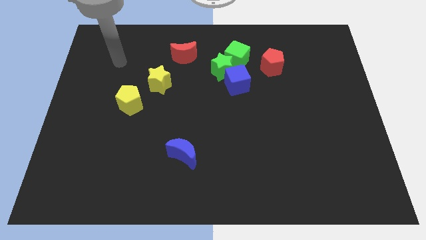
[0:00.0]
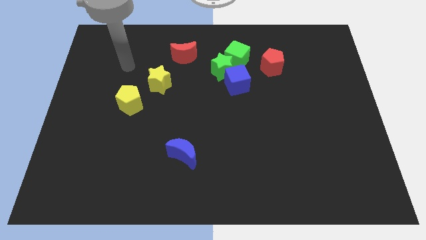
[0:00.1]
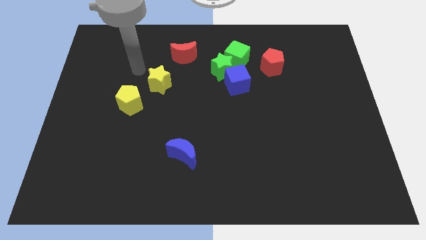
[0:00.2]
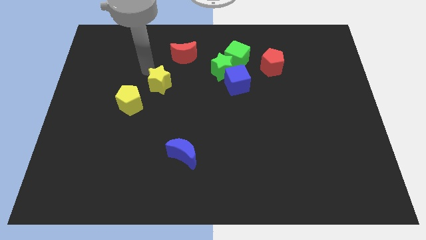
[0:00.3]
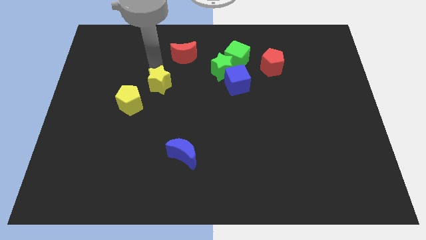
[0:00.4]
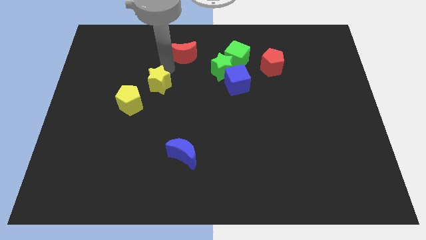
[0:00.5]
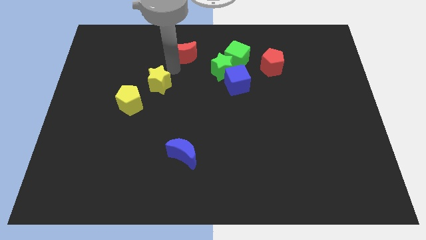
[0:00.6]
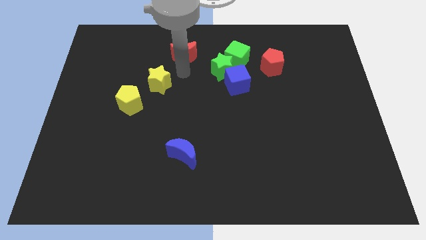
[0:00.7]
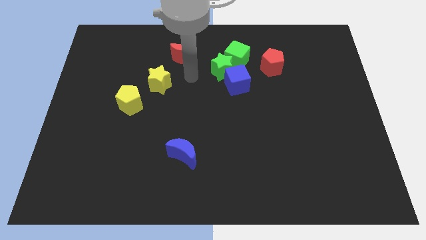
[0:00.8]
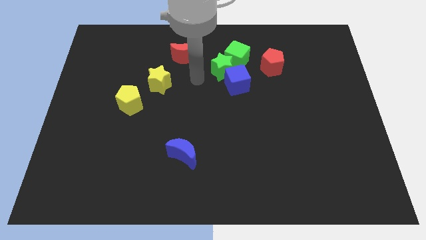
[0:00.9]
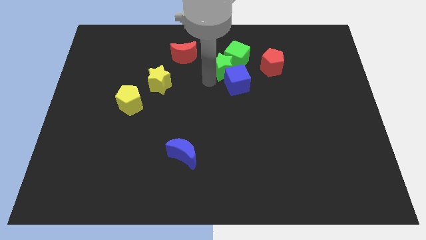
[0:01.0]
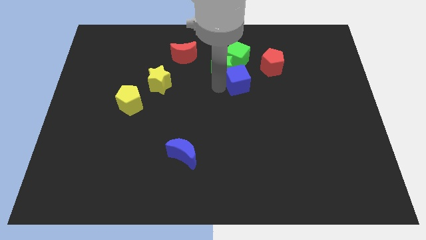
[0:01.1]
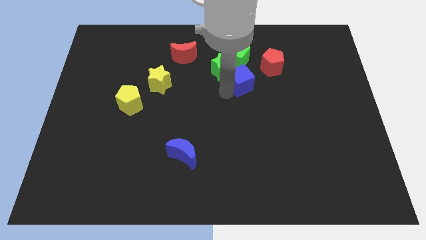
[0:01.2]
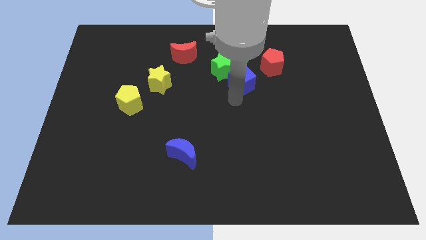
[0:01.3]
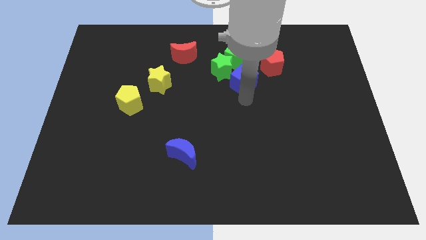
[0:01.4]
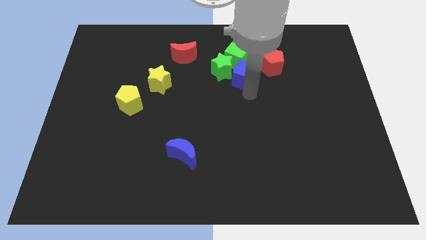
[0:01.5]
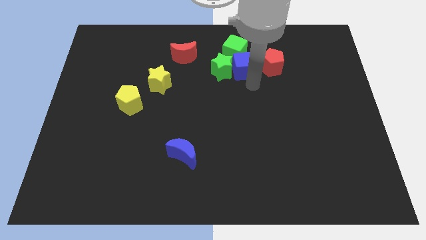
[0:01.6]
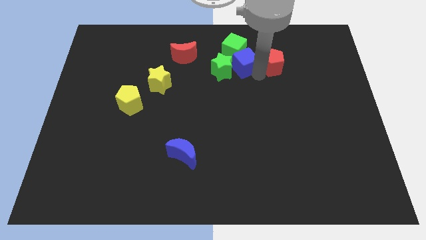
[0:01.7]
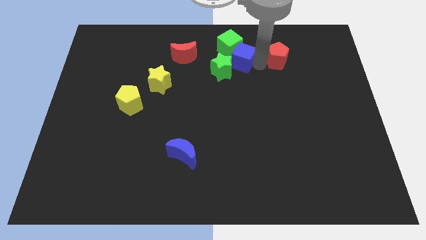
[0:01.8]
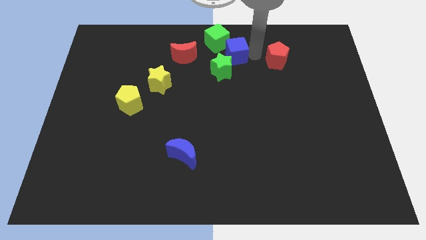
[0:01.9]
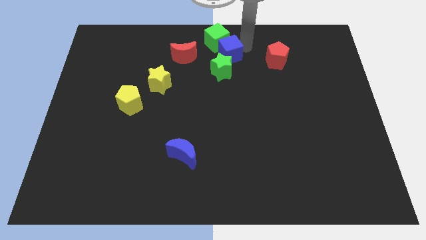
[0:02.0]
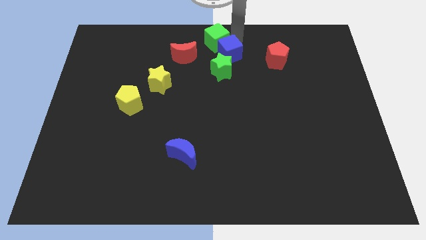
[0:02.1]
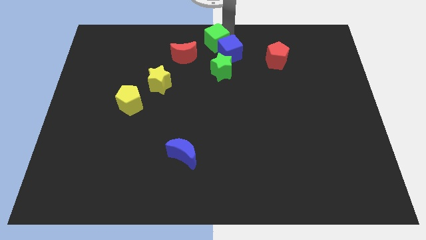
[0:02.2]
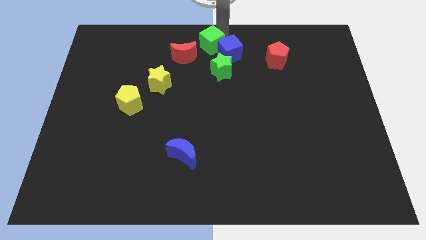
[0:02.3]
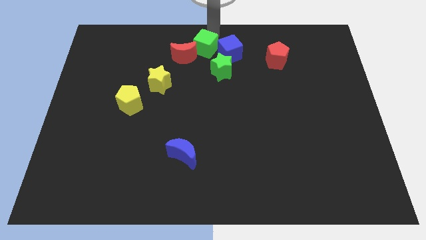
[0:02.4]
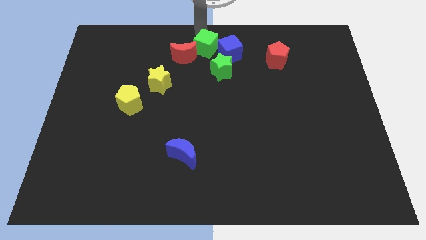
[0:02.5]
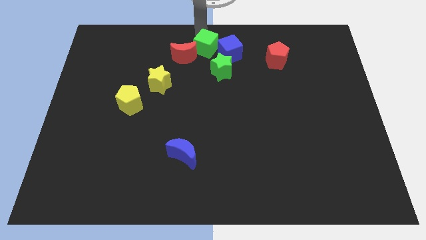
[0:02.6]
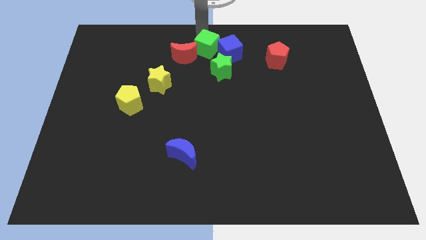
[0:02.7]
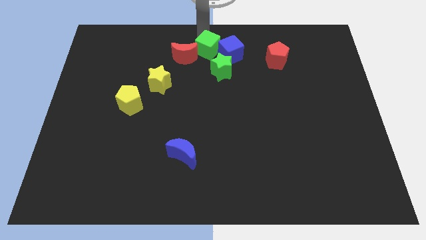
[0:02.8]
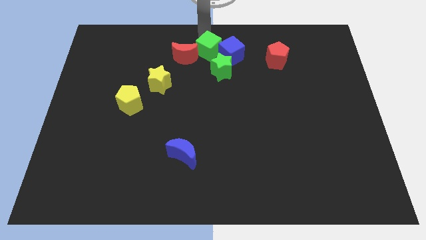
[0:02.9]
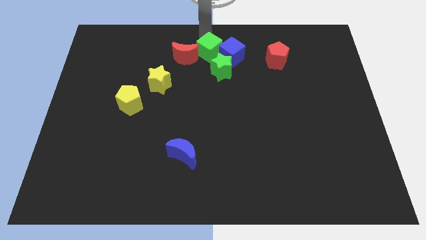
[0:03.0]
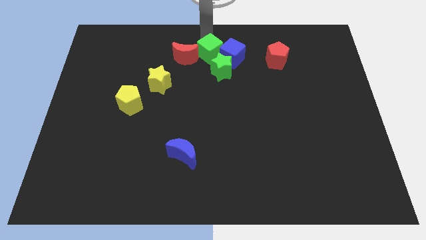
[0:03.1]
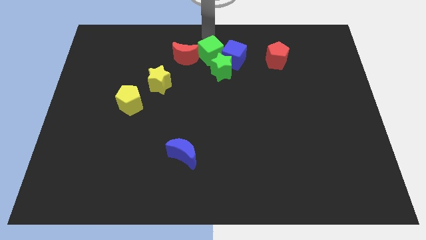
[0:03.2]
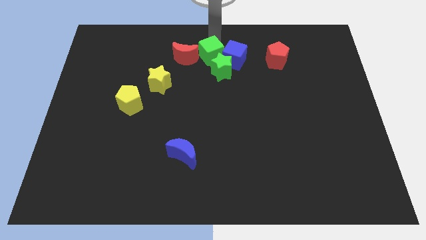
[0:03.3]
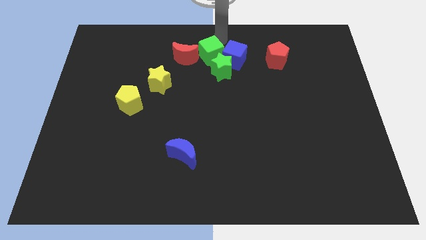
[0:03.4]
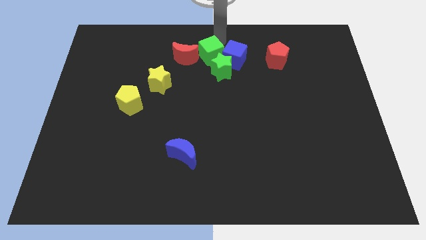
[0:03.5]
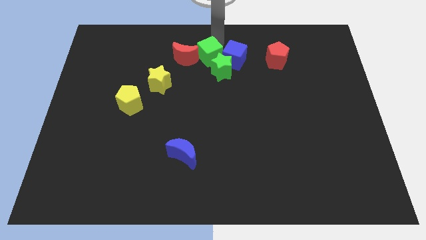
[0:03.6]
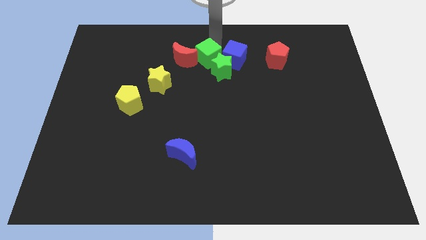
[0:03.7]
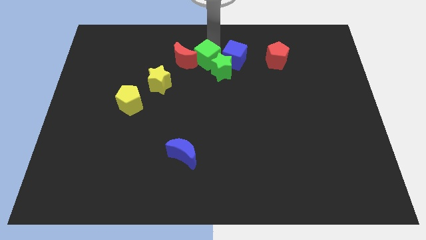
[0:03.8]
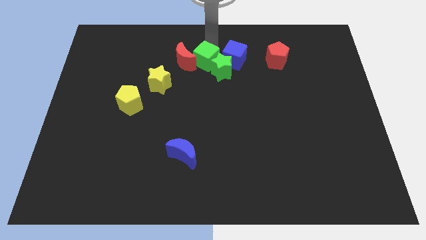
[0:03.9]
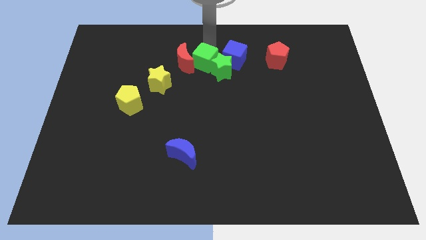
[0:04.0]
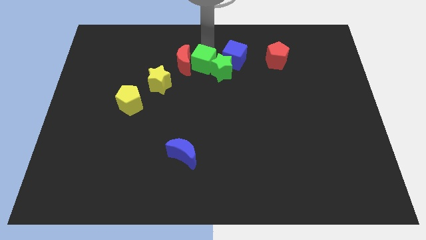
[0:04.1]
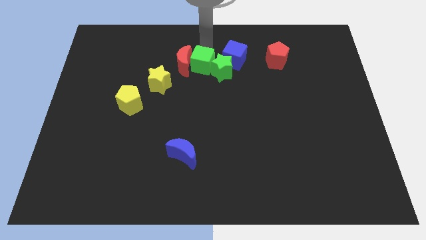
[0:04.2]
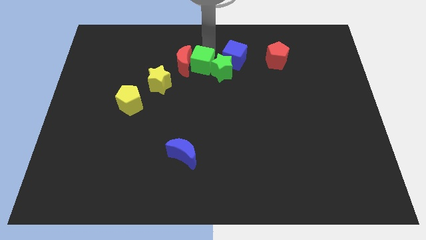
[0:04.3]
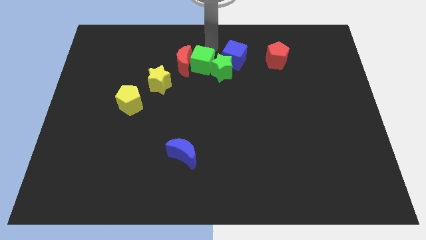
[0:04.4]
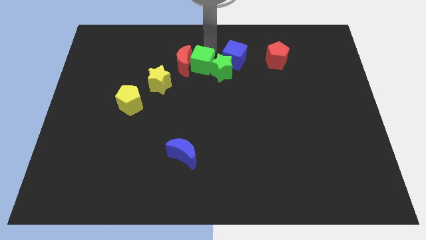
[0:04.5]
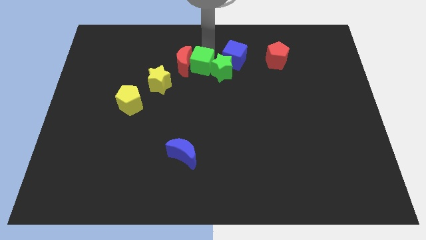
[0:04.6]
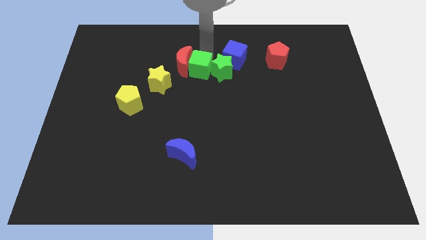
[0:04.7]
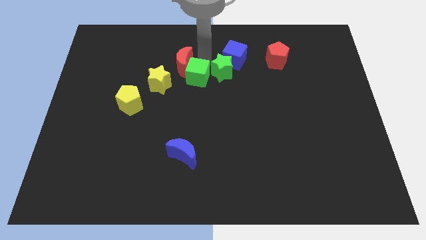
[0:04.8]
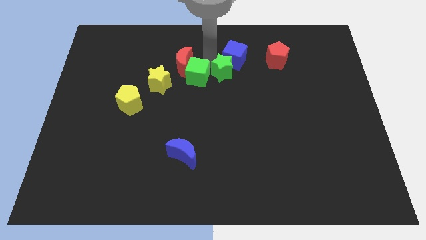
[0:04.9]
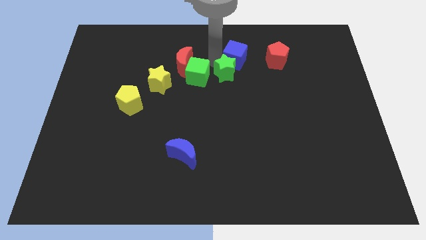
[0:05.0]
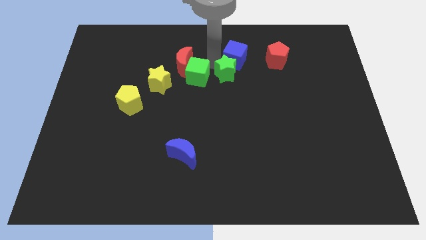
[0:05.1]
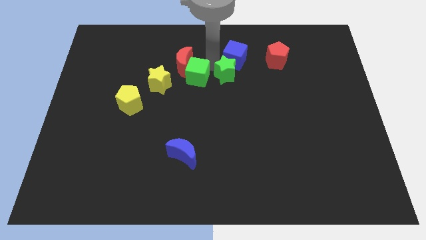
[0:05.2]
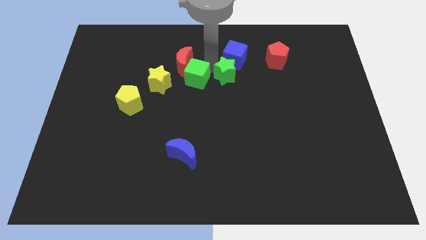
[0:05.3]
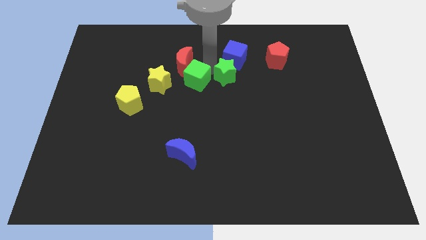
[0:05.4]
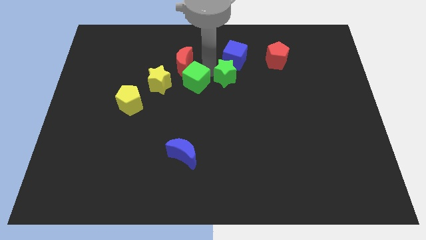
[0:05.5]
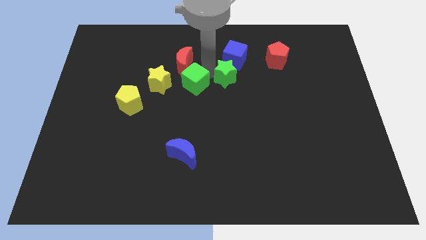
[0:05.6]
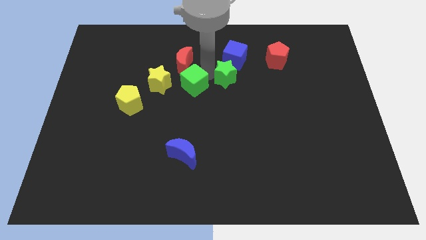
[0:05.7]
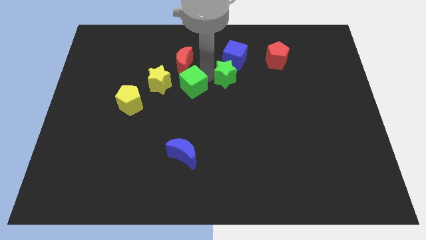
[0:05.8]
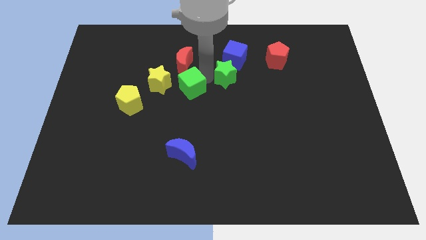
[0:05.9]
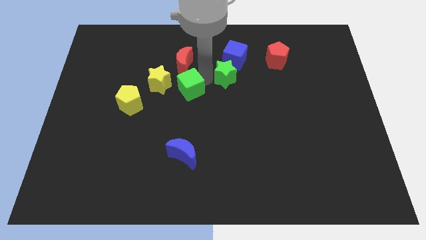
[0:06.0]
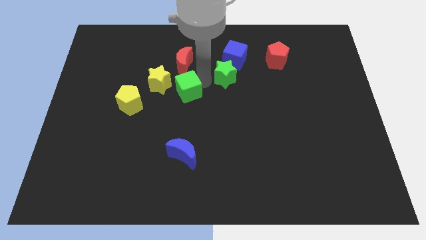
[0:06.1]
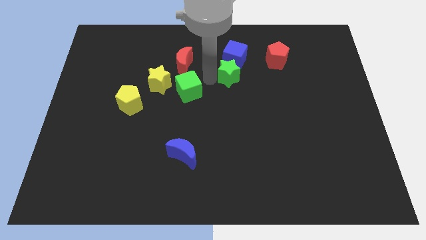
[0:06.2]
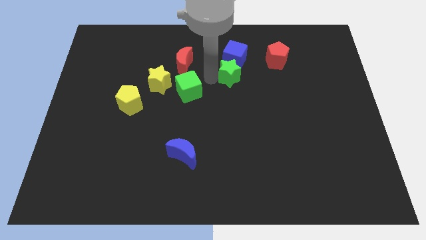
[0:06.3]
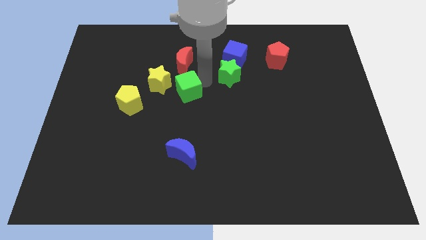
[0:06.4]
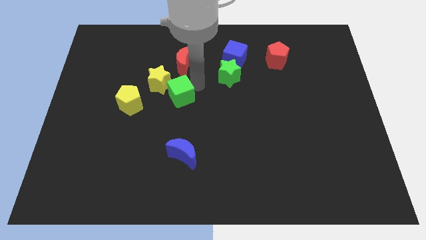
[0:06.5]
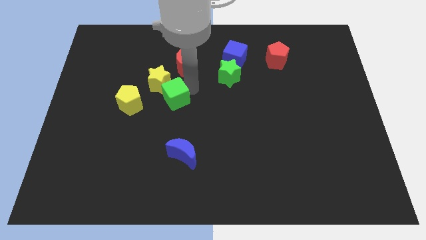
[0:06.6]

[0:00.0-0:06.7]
slide the green cube diagonally down and to the left

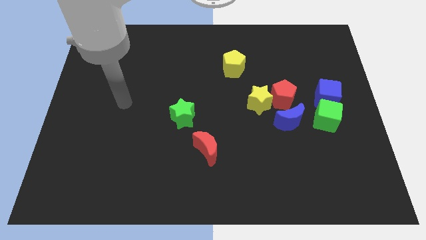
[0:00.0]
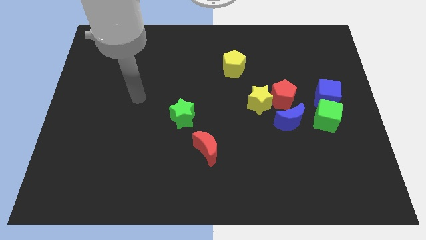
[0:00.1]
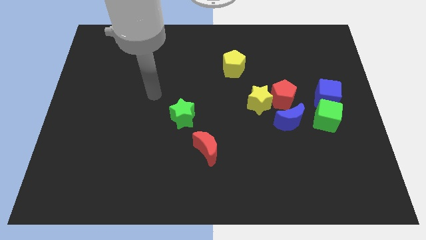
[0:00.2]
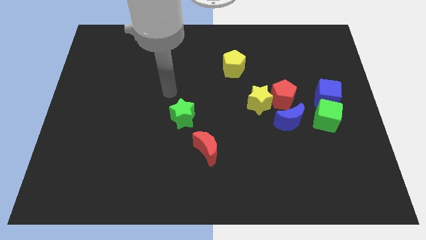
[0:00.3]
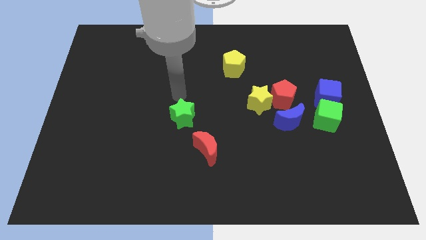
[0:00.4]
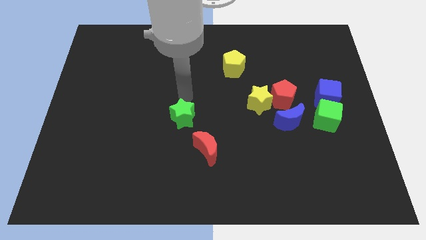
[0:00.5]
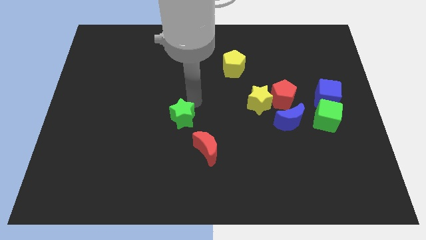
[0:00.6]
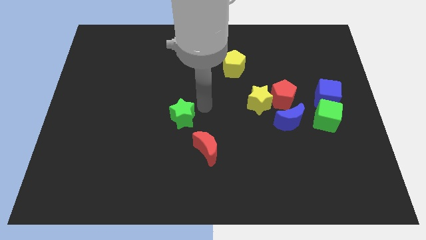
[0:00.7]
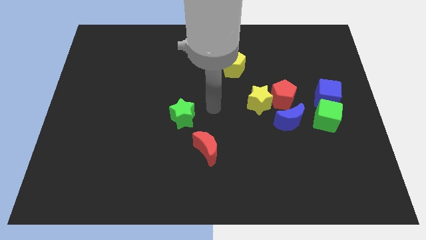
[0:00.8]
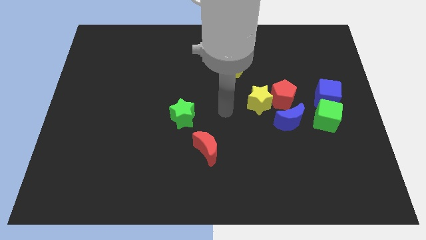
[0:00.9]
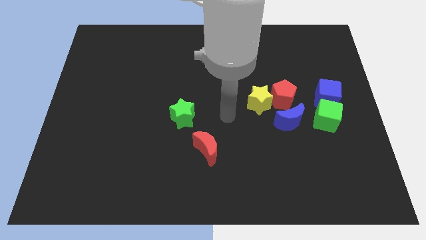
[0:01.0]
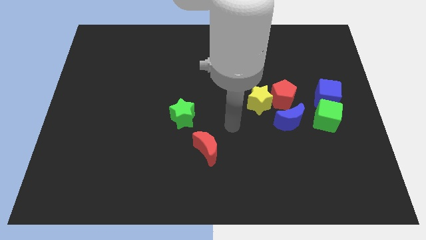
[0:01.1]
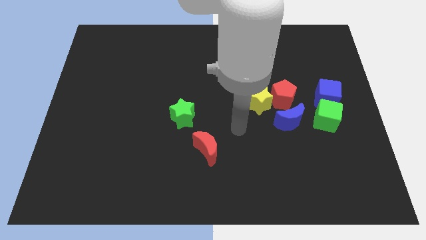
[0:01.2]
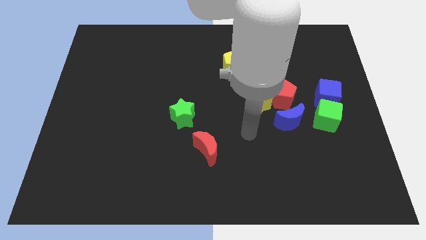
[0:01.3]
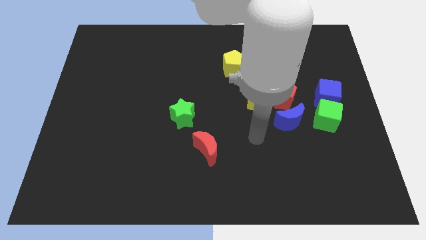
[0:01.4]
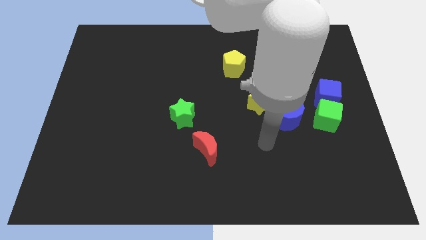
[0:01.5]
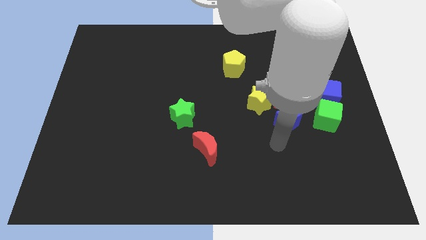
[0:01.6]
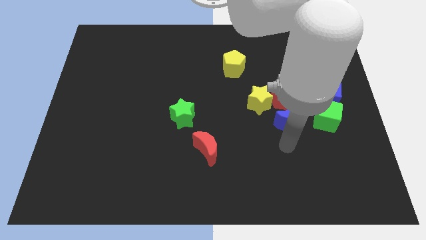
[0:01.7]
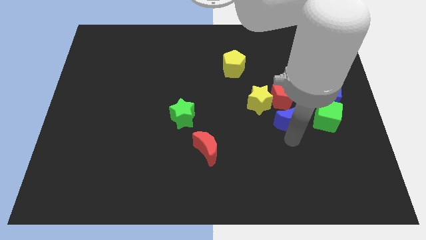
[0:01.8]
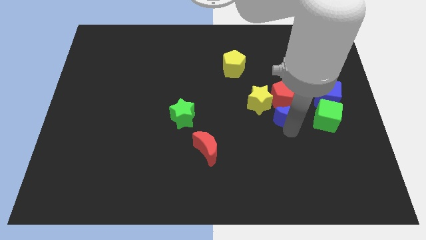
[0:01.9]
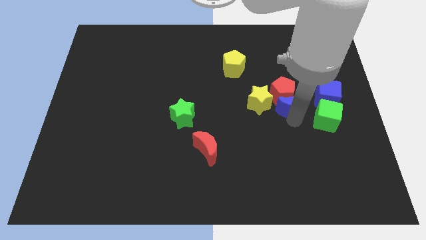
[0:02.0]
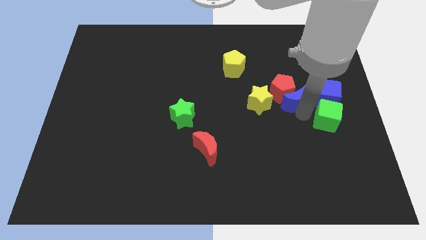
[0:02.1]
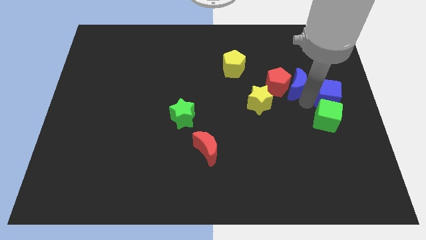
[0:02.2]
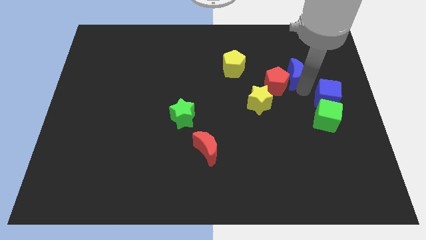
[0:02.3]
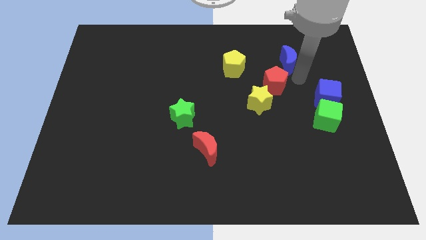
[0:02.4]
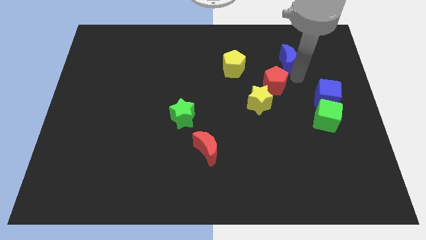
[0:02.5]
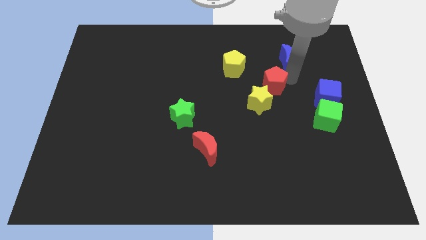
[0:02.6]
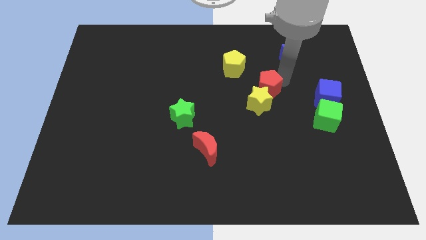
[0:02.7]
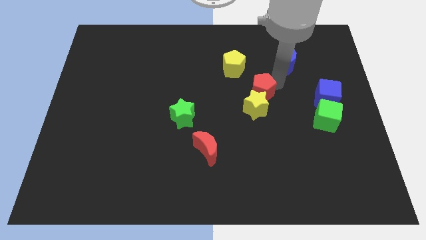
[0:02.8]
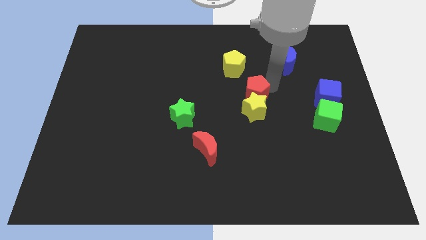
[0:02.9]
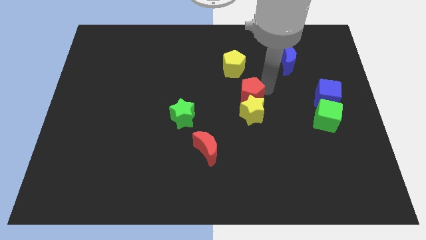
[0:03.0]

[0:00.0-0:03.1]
slightly slide the red pentagon left
